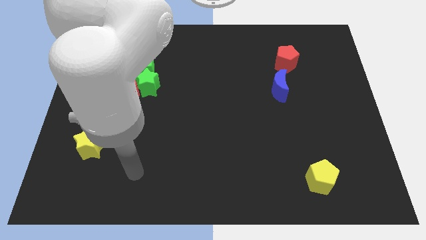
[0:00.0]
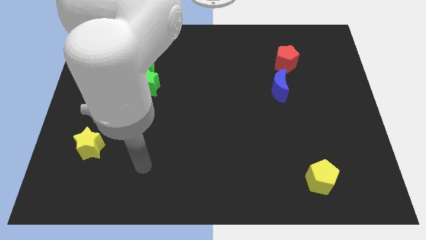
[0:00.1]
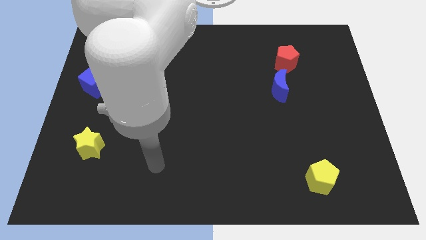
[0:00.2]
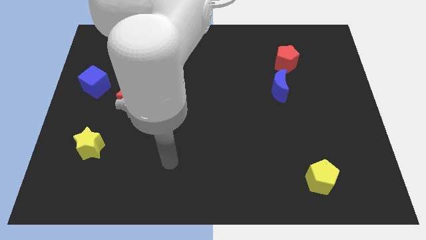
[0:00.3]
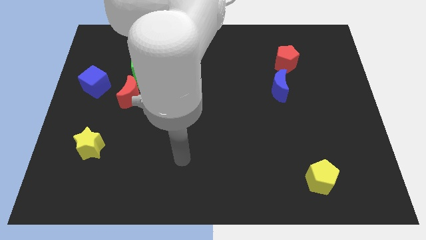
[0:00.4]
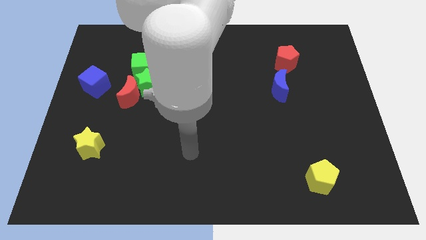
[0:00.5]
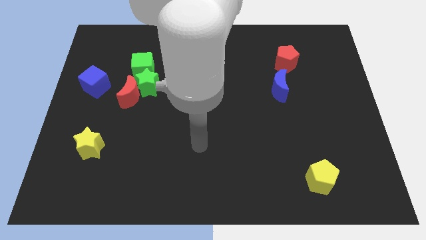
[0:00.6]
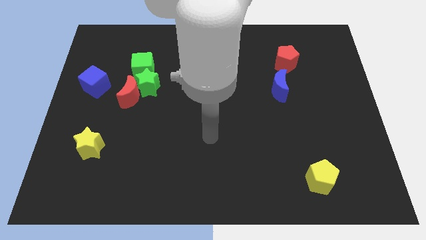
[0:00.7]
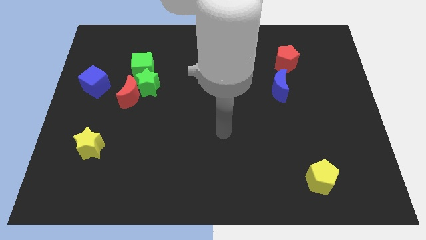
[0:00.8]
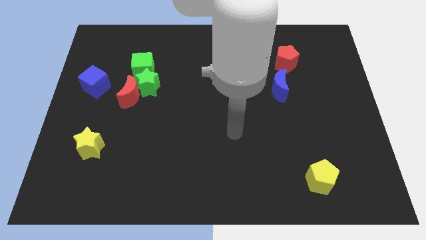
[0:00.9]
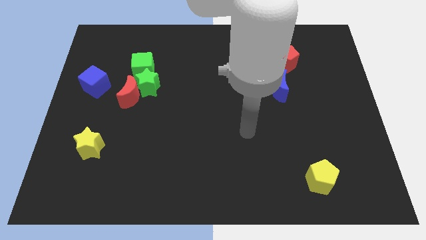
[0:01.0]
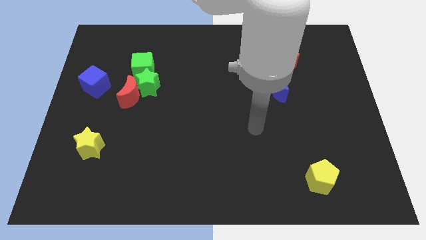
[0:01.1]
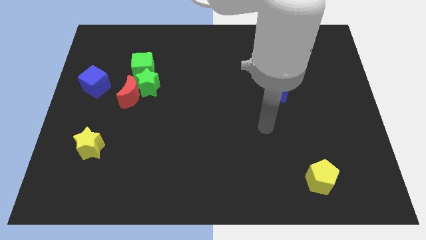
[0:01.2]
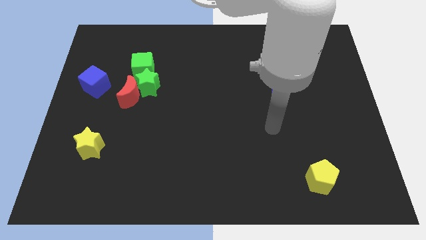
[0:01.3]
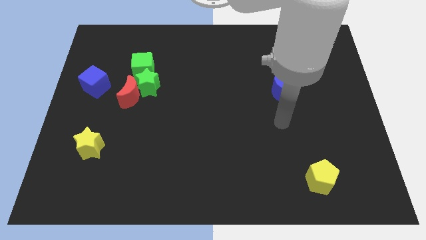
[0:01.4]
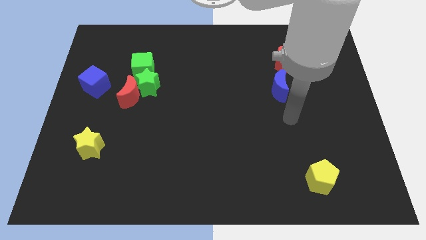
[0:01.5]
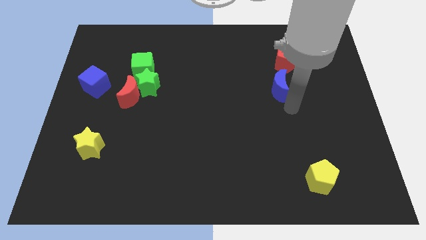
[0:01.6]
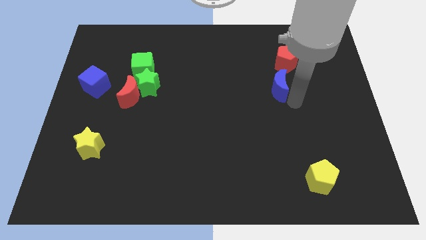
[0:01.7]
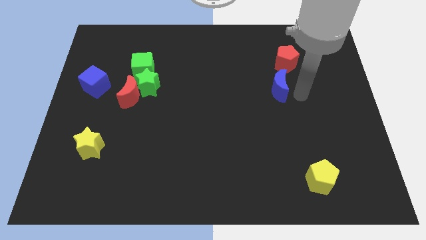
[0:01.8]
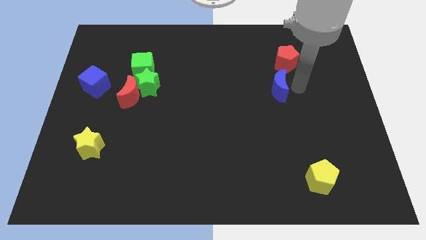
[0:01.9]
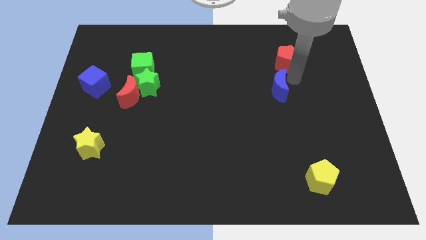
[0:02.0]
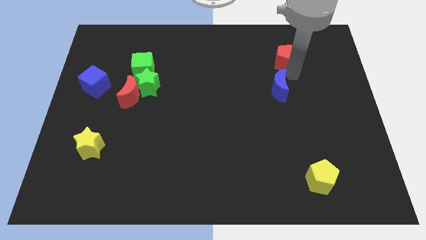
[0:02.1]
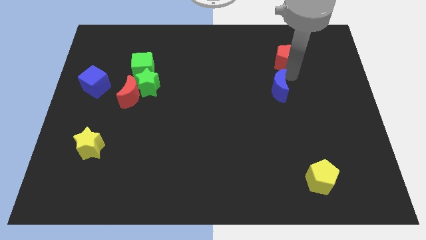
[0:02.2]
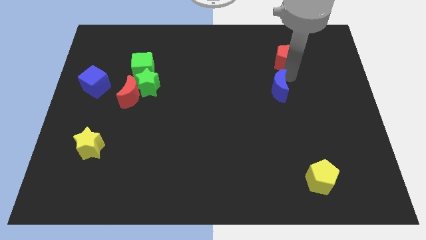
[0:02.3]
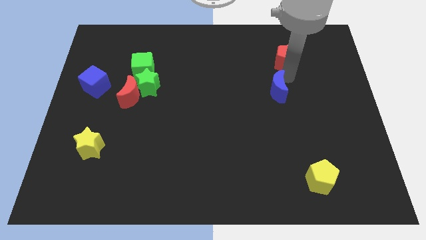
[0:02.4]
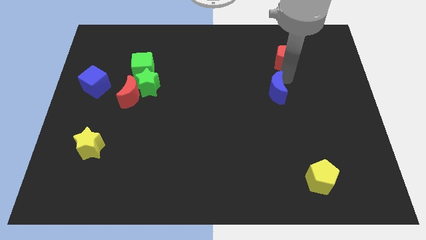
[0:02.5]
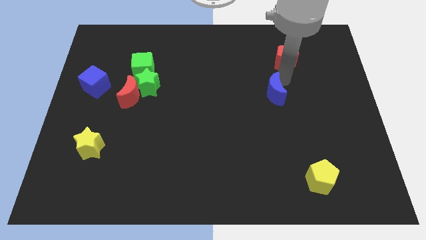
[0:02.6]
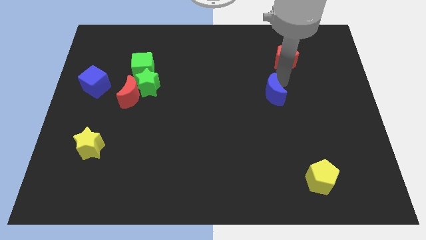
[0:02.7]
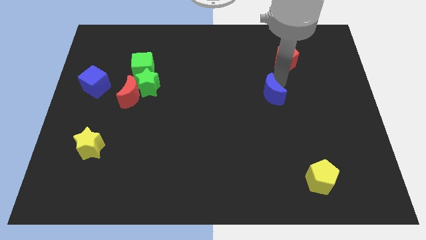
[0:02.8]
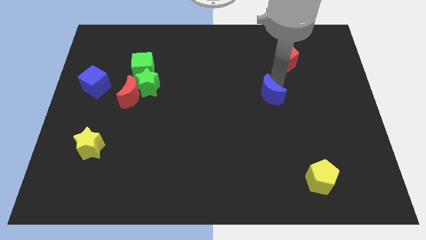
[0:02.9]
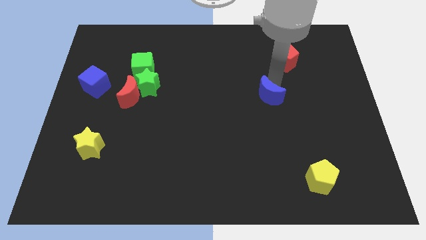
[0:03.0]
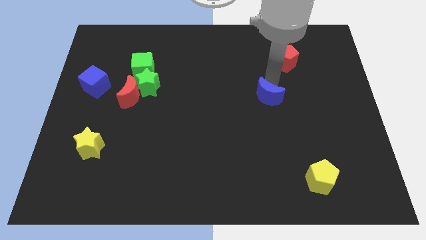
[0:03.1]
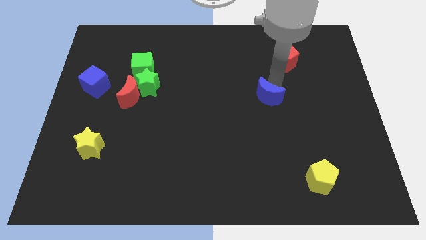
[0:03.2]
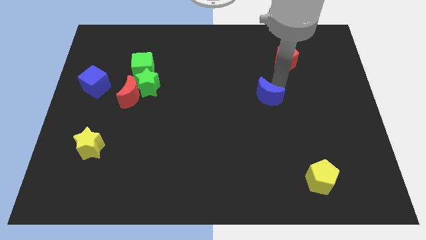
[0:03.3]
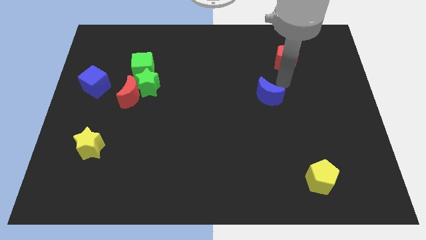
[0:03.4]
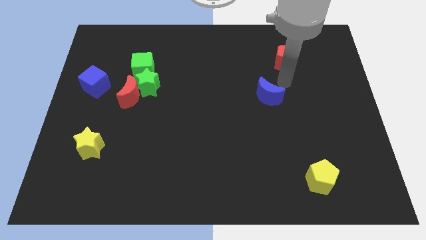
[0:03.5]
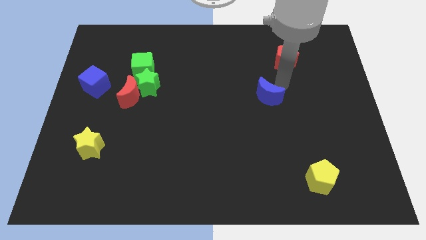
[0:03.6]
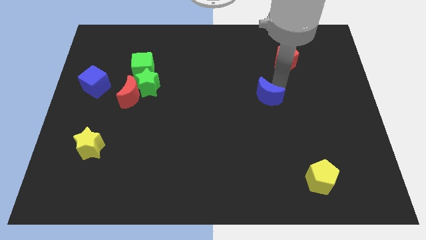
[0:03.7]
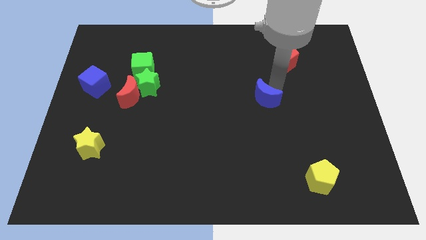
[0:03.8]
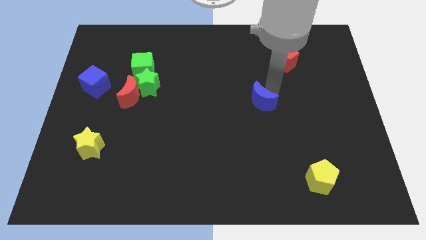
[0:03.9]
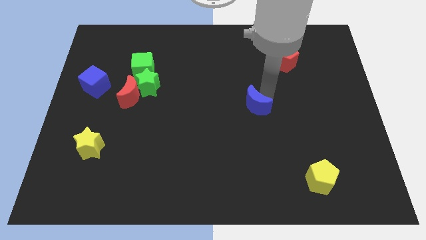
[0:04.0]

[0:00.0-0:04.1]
push the blue moon a little diagonally down and left

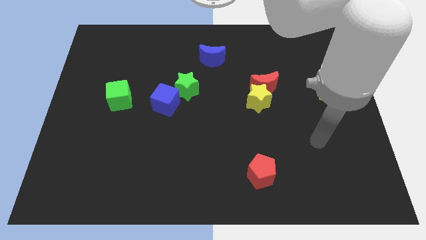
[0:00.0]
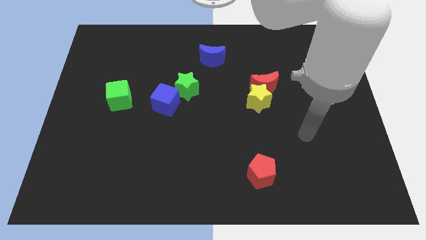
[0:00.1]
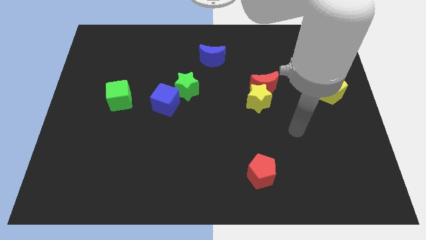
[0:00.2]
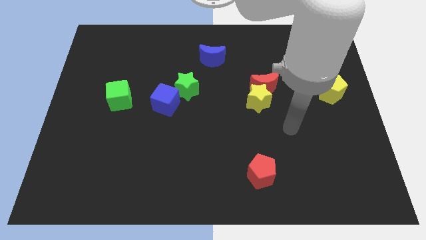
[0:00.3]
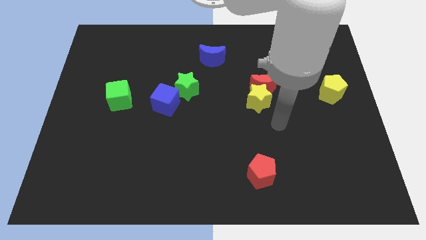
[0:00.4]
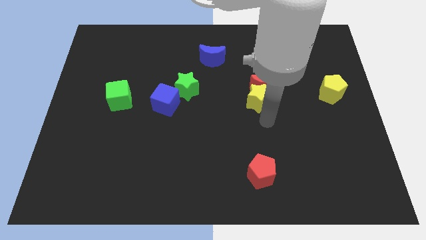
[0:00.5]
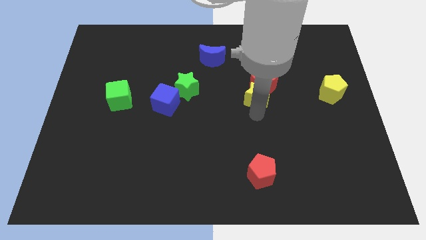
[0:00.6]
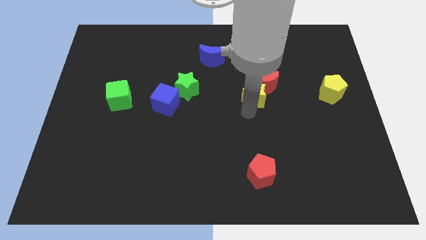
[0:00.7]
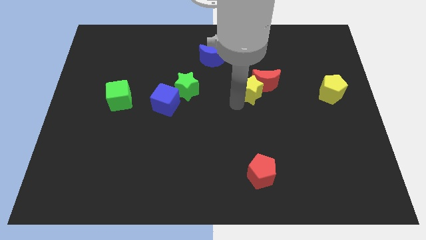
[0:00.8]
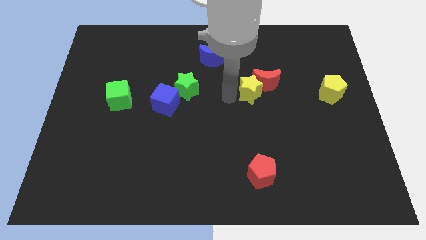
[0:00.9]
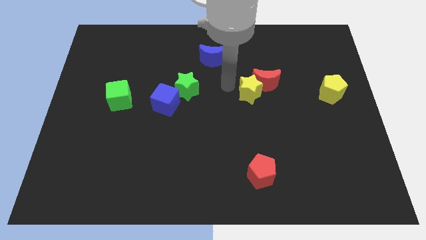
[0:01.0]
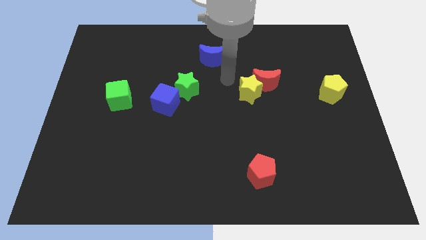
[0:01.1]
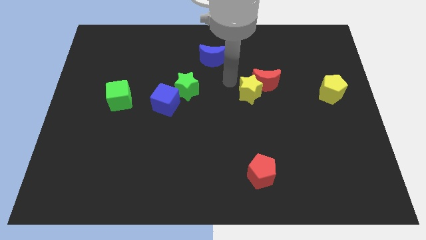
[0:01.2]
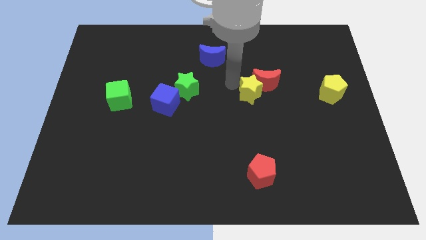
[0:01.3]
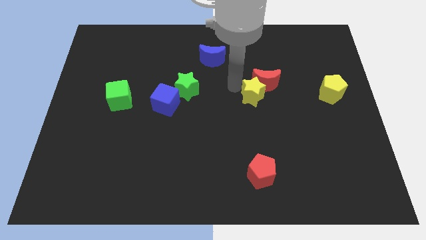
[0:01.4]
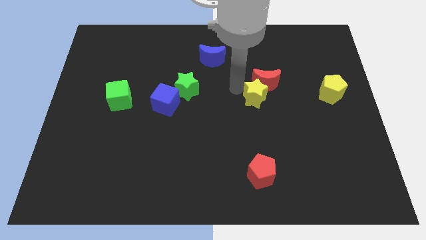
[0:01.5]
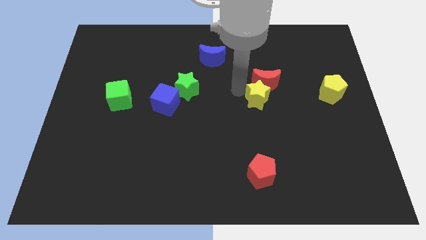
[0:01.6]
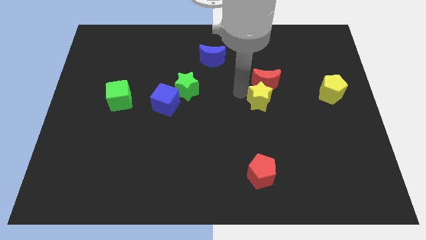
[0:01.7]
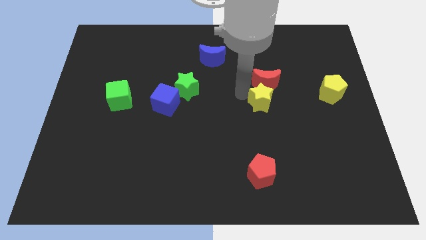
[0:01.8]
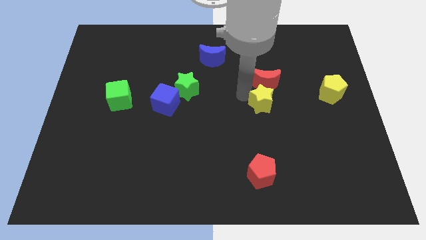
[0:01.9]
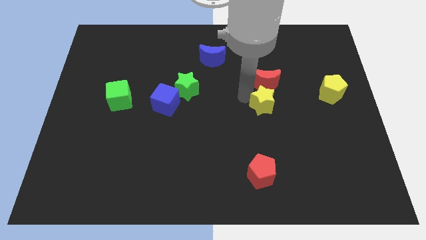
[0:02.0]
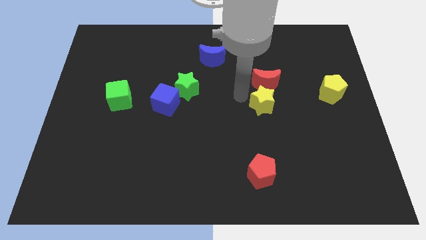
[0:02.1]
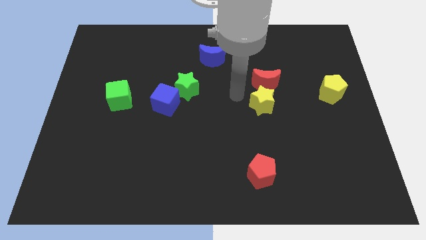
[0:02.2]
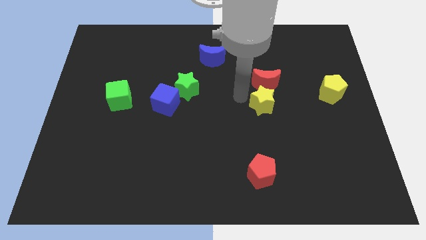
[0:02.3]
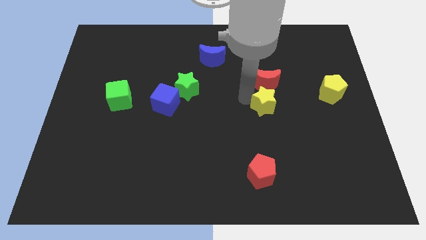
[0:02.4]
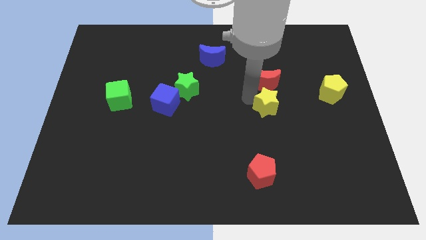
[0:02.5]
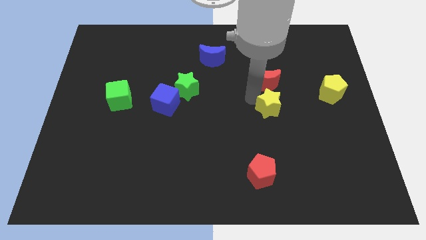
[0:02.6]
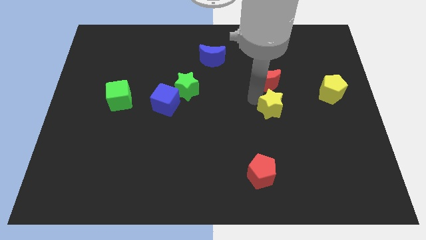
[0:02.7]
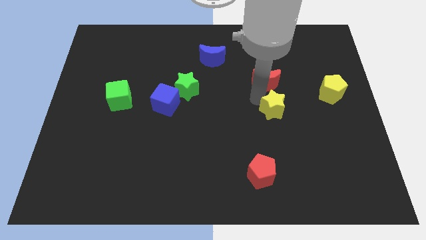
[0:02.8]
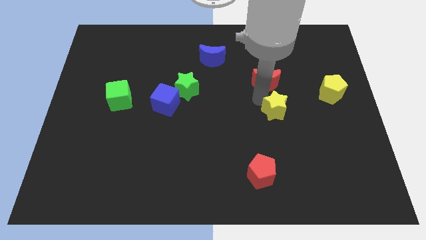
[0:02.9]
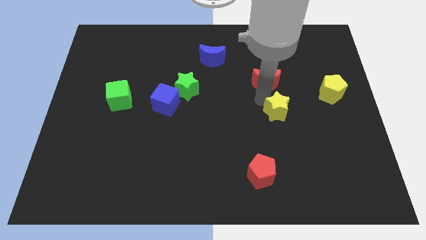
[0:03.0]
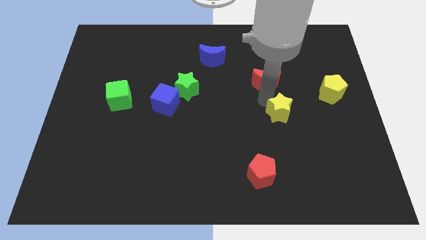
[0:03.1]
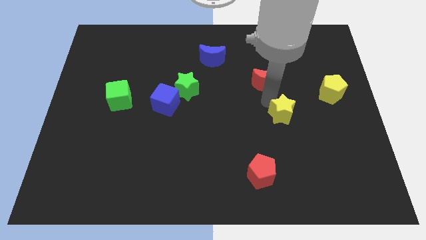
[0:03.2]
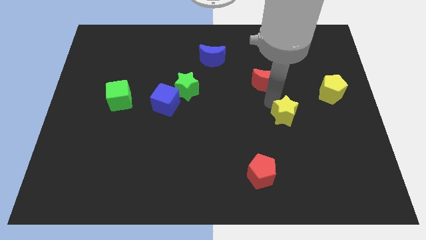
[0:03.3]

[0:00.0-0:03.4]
move the yellow star downwards and to the right a little

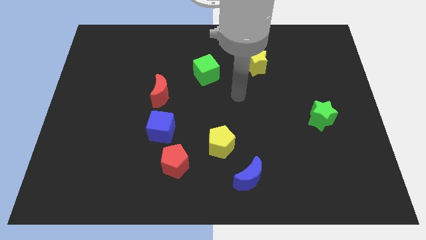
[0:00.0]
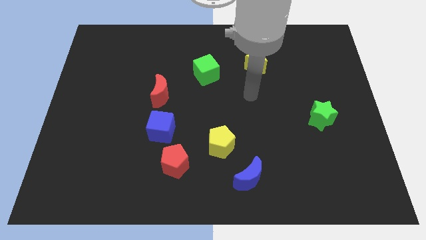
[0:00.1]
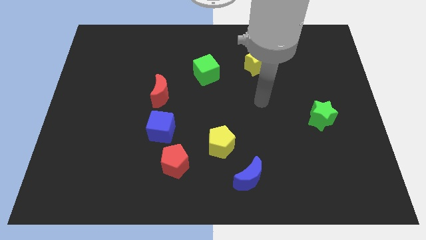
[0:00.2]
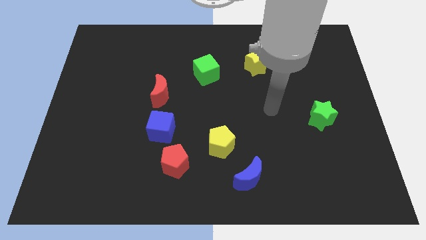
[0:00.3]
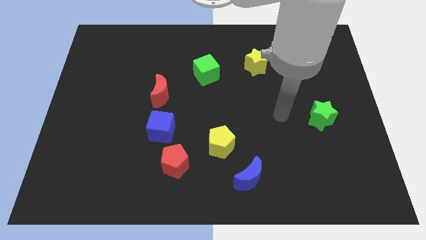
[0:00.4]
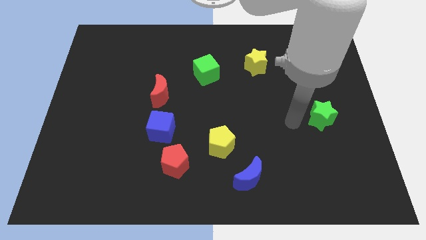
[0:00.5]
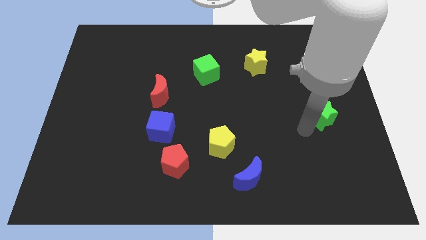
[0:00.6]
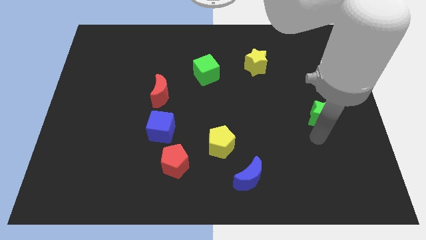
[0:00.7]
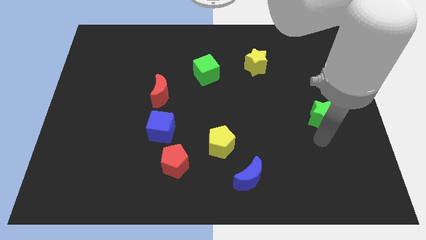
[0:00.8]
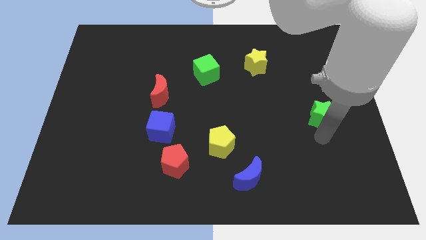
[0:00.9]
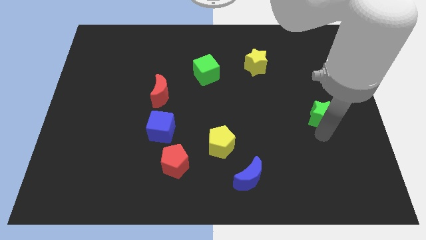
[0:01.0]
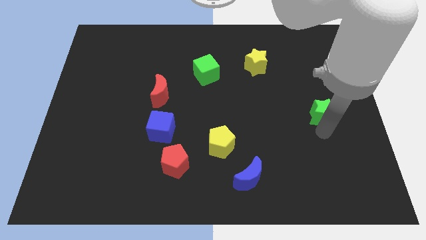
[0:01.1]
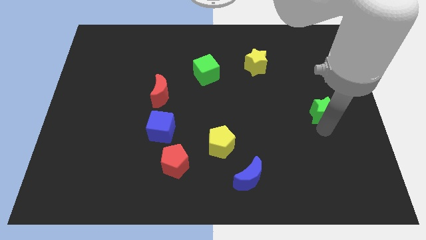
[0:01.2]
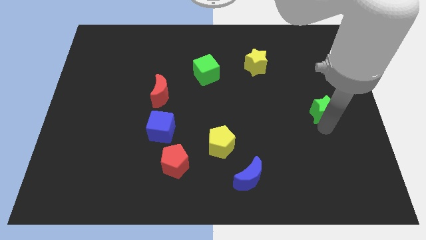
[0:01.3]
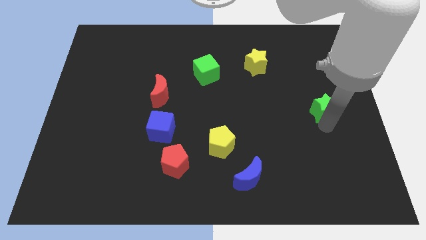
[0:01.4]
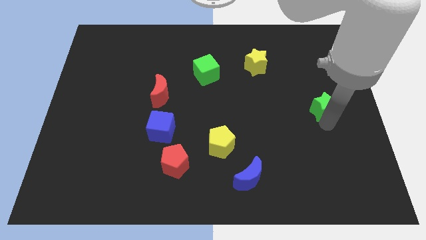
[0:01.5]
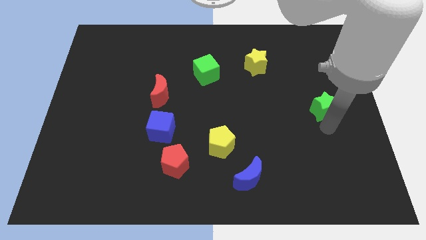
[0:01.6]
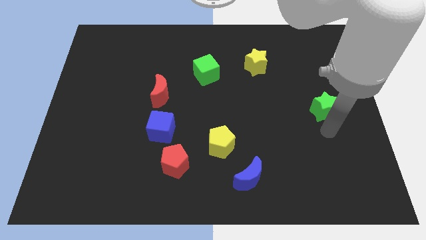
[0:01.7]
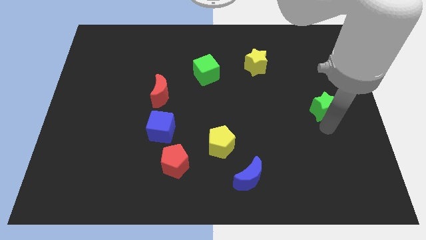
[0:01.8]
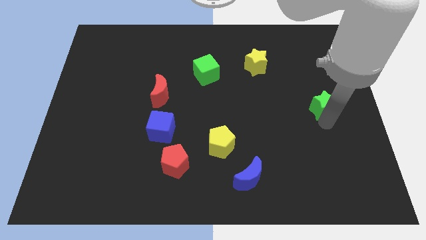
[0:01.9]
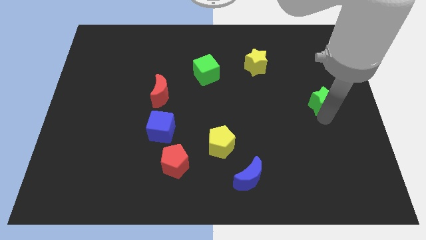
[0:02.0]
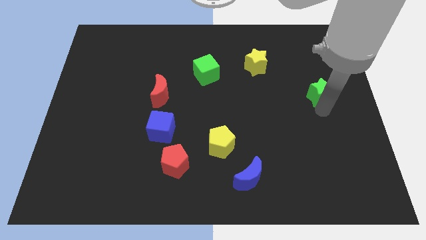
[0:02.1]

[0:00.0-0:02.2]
push the green star up a bit
